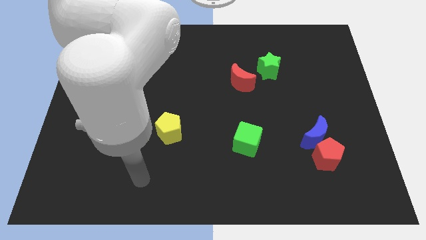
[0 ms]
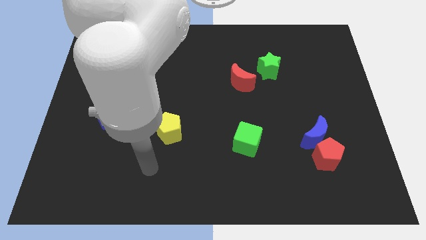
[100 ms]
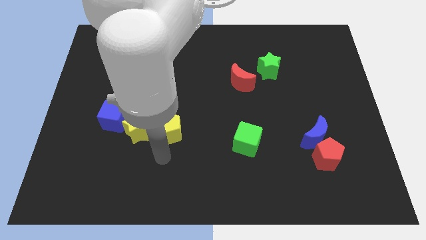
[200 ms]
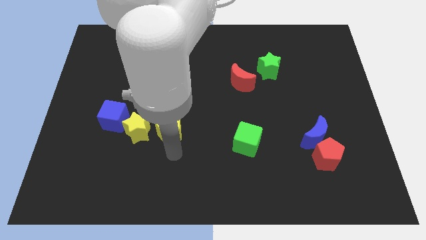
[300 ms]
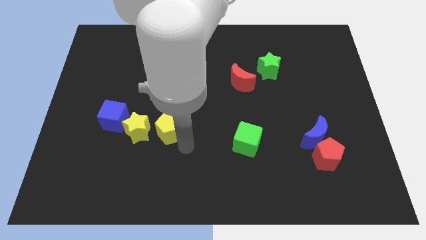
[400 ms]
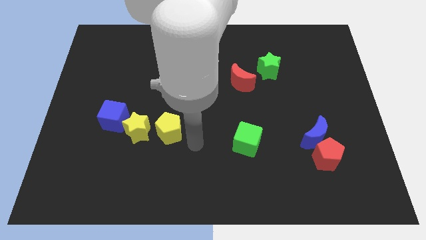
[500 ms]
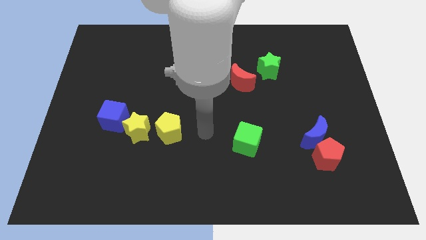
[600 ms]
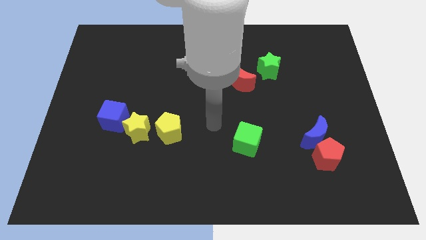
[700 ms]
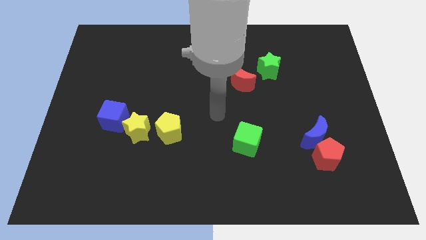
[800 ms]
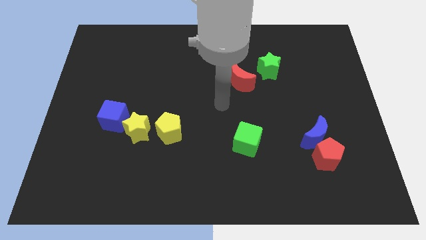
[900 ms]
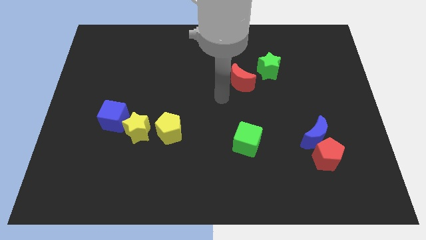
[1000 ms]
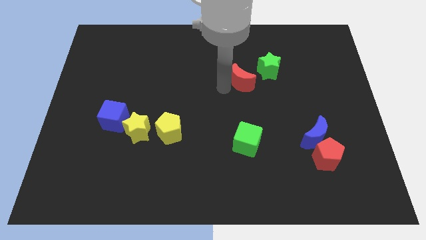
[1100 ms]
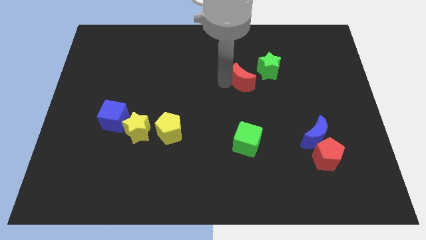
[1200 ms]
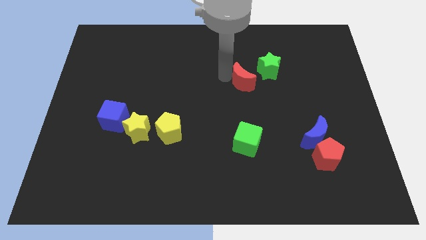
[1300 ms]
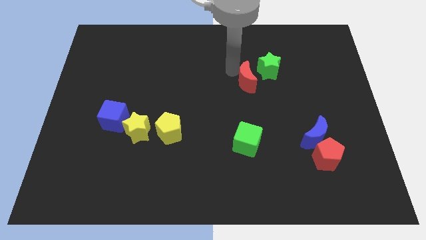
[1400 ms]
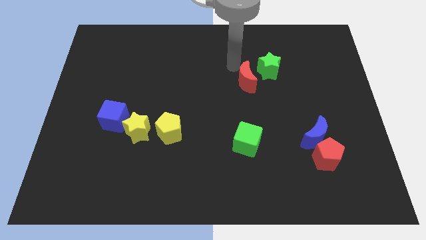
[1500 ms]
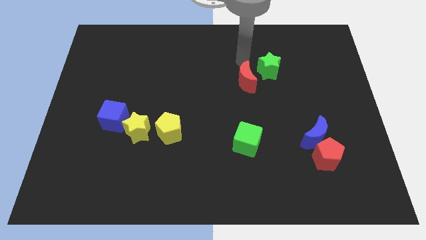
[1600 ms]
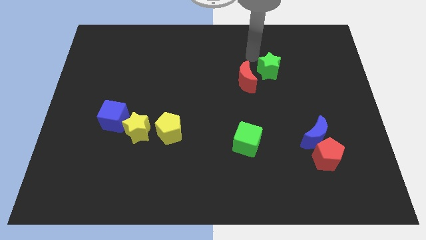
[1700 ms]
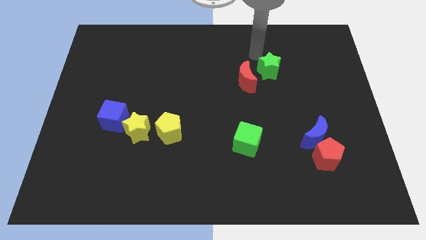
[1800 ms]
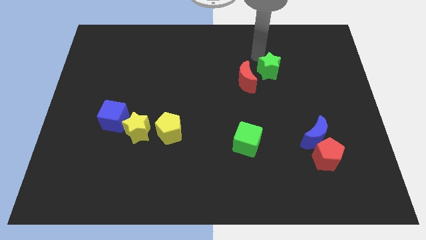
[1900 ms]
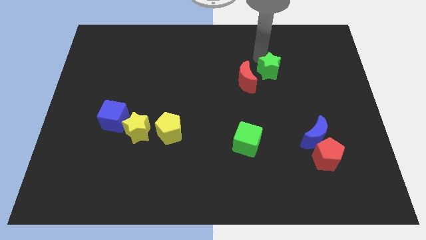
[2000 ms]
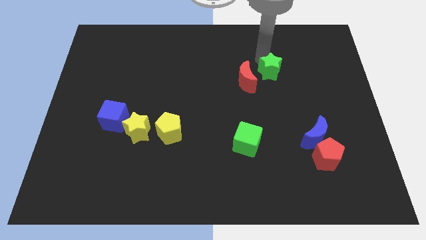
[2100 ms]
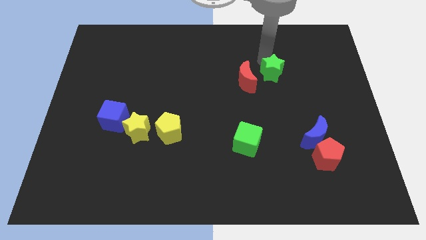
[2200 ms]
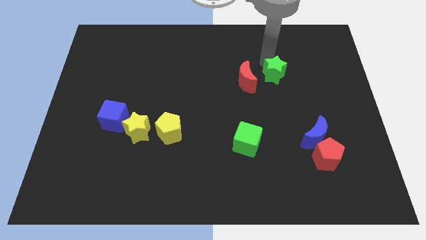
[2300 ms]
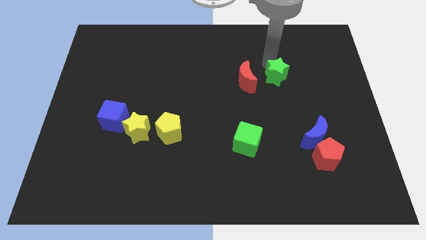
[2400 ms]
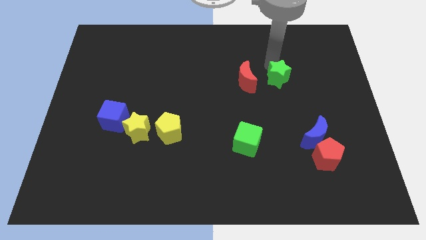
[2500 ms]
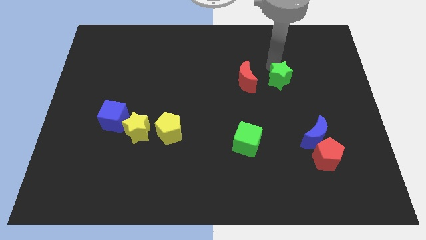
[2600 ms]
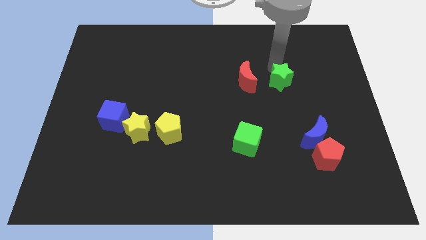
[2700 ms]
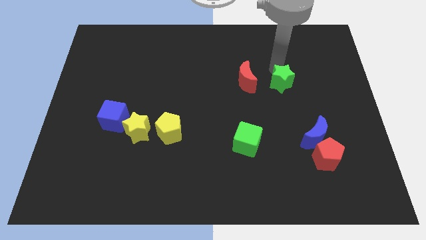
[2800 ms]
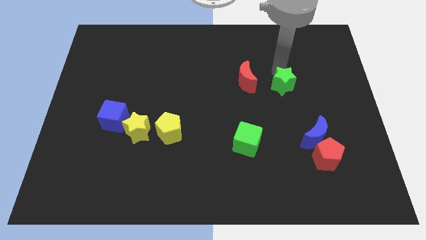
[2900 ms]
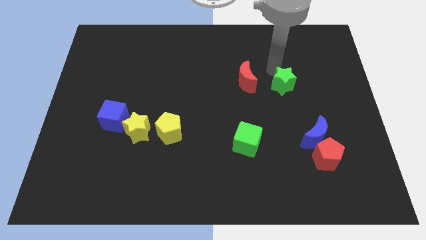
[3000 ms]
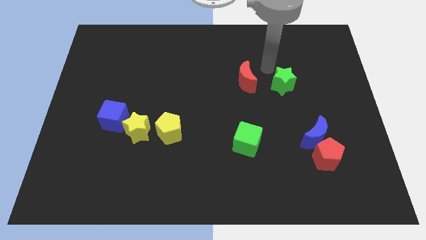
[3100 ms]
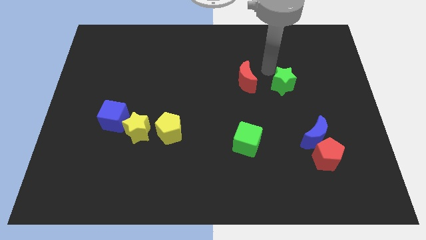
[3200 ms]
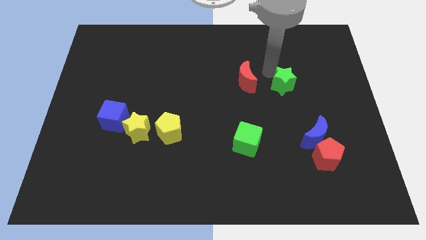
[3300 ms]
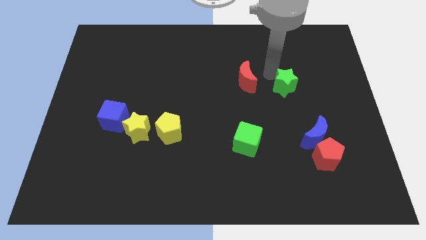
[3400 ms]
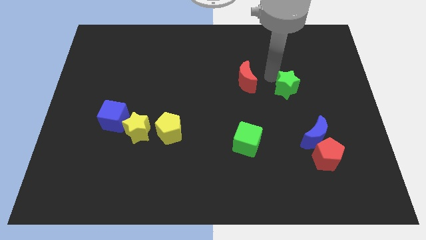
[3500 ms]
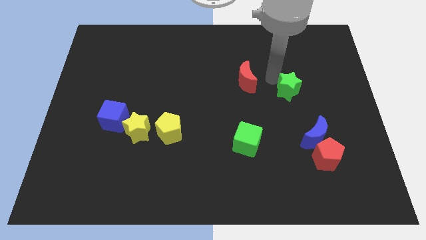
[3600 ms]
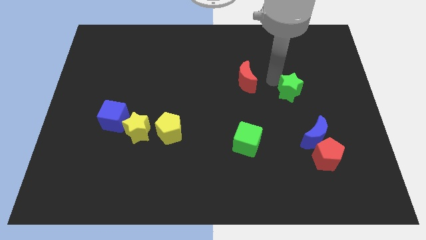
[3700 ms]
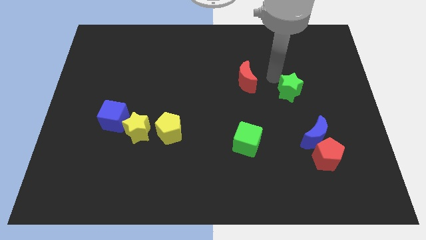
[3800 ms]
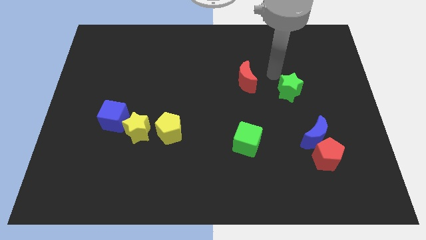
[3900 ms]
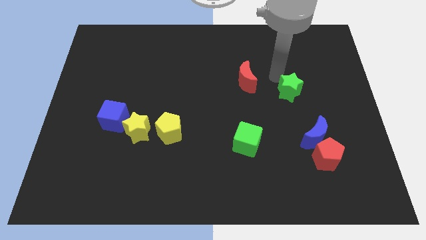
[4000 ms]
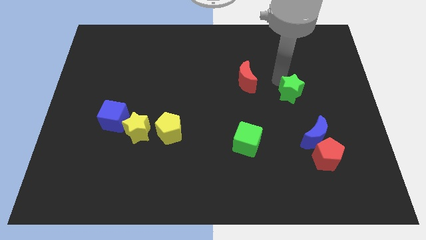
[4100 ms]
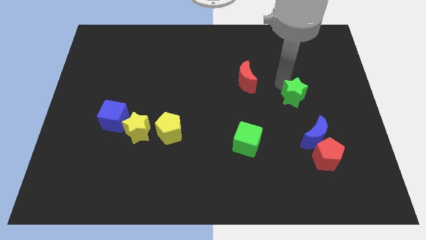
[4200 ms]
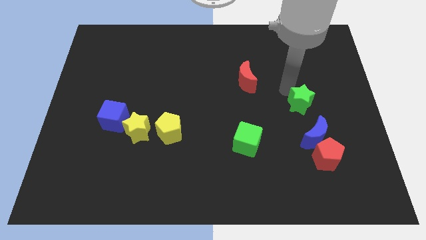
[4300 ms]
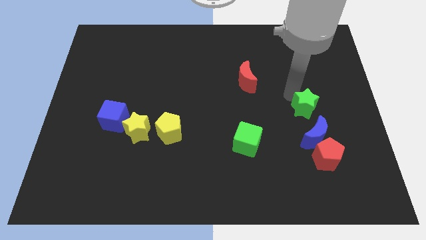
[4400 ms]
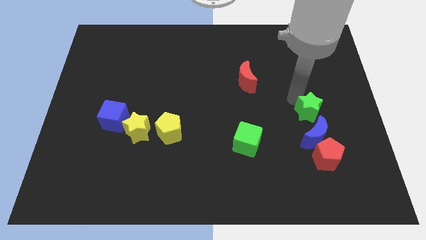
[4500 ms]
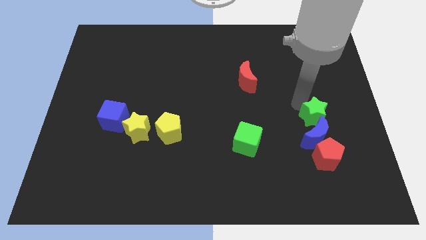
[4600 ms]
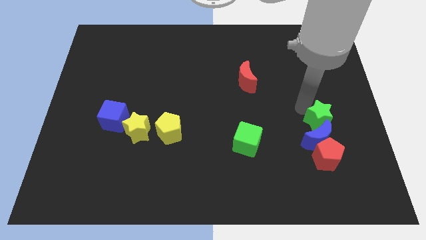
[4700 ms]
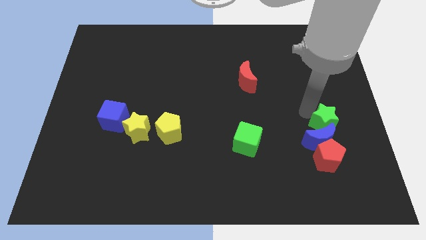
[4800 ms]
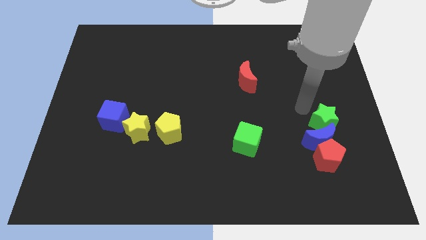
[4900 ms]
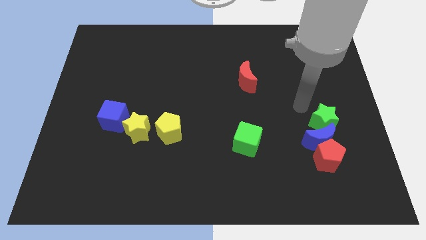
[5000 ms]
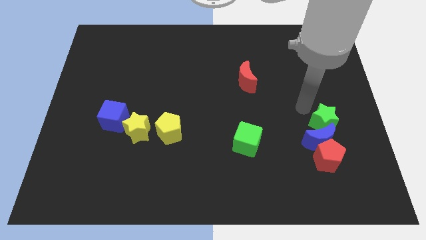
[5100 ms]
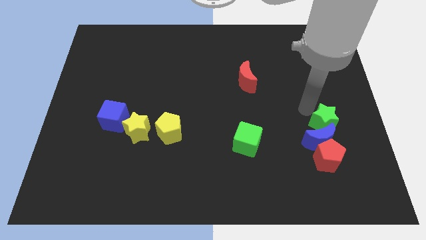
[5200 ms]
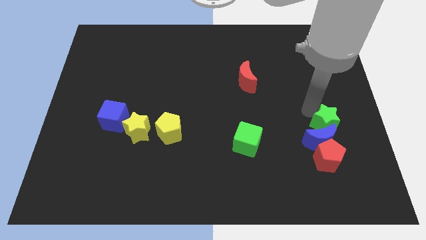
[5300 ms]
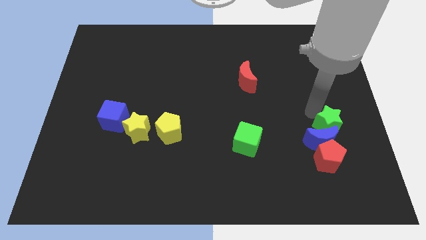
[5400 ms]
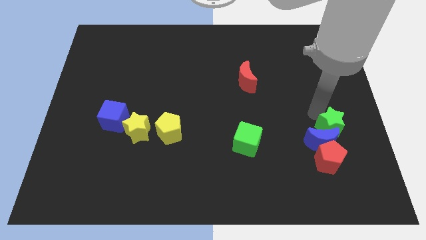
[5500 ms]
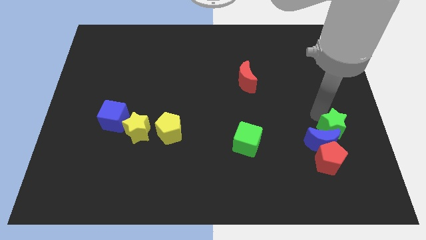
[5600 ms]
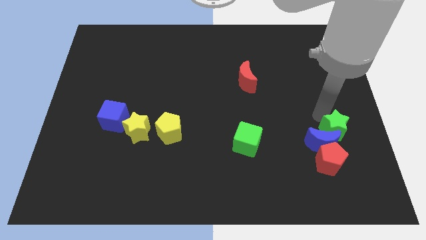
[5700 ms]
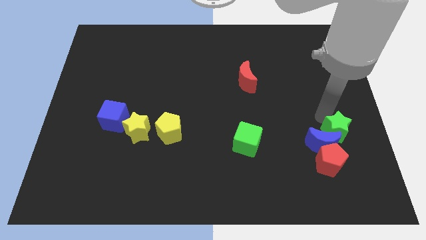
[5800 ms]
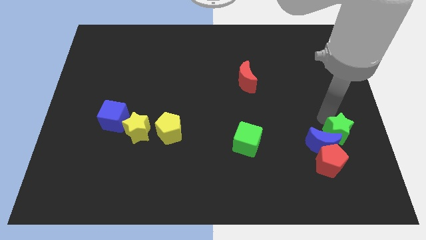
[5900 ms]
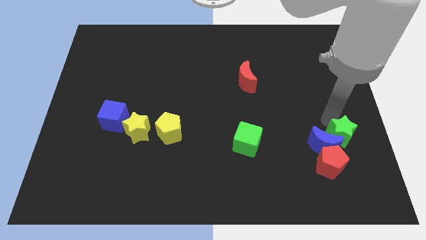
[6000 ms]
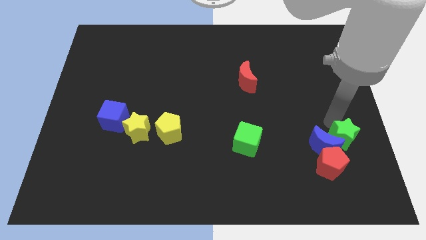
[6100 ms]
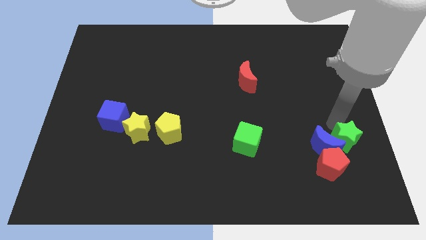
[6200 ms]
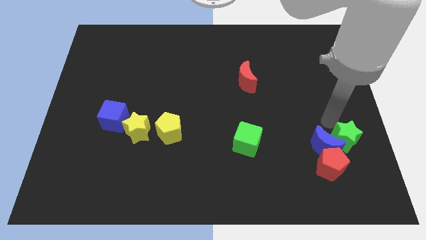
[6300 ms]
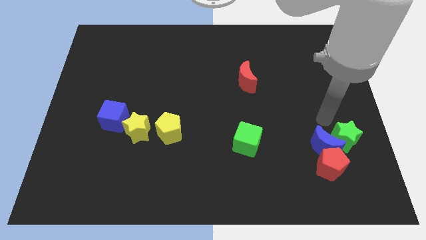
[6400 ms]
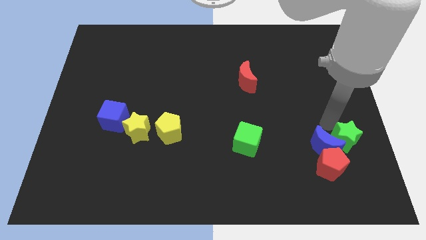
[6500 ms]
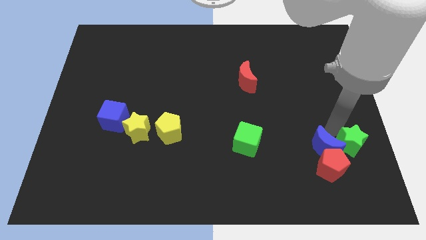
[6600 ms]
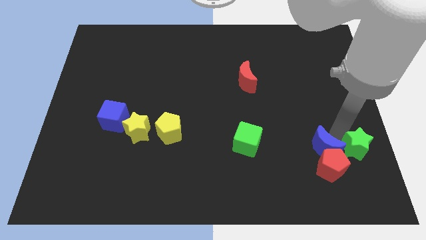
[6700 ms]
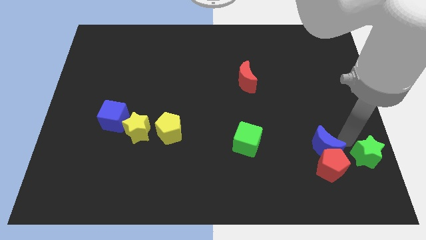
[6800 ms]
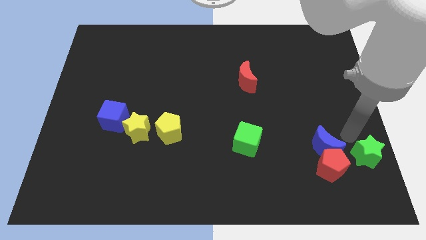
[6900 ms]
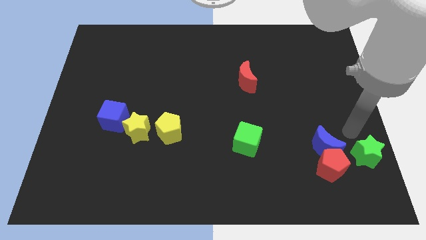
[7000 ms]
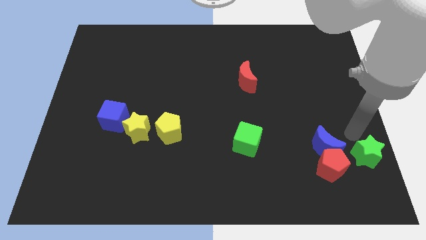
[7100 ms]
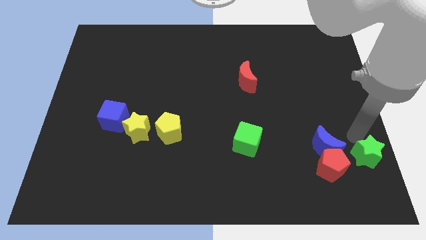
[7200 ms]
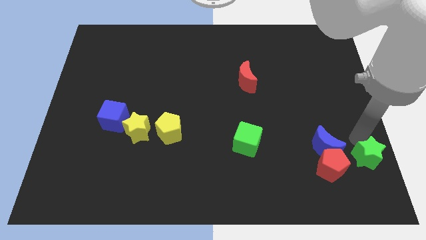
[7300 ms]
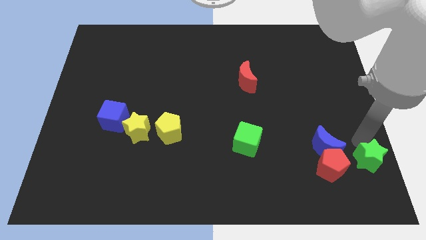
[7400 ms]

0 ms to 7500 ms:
push the green star to the bottom right corner
